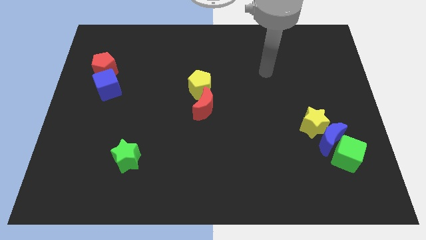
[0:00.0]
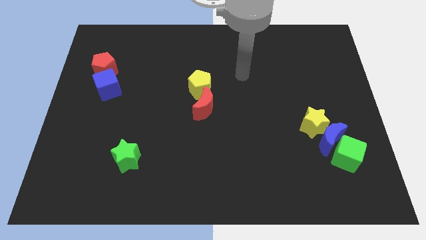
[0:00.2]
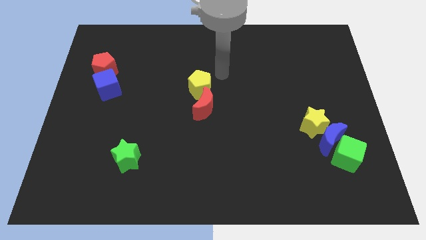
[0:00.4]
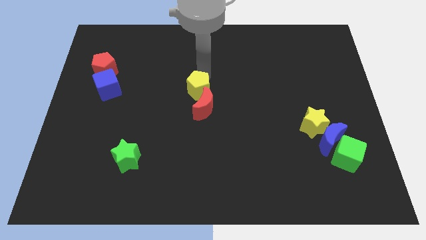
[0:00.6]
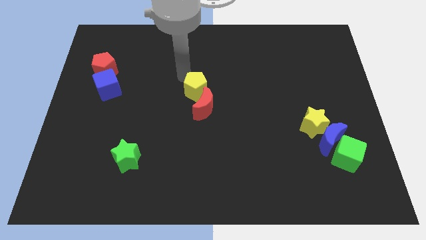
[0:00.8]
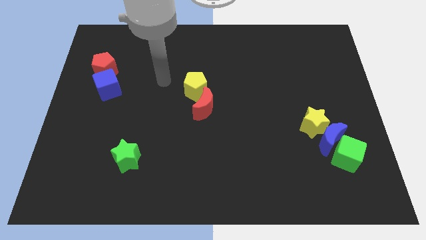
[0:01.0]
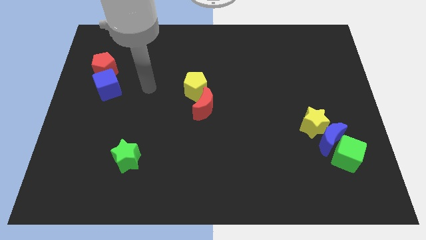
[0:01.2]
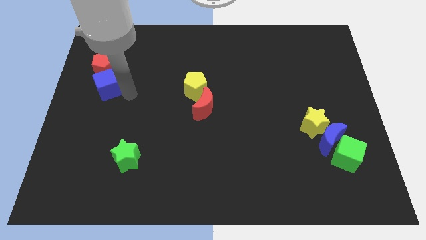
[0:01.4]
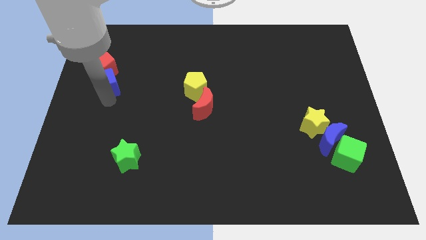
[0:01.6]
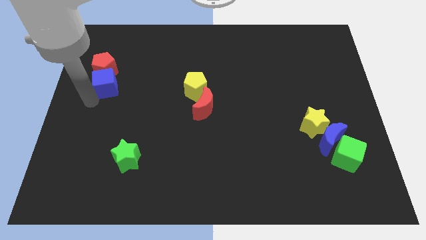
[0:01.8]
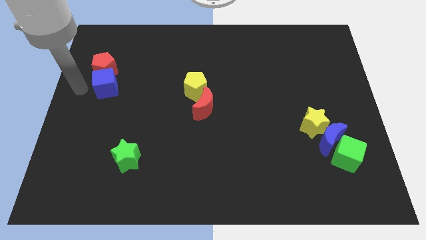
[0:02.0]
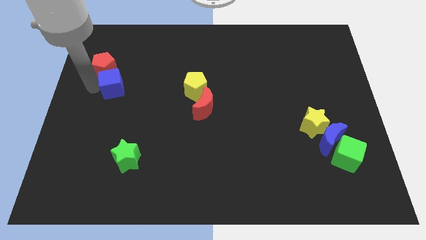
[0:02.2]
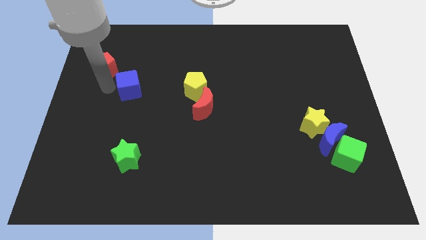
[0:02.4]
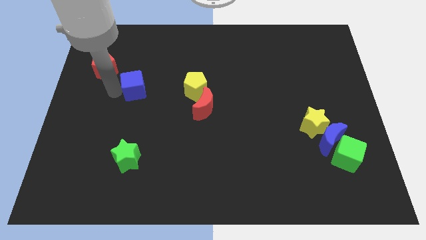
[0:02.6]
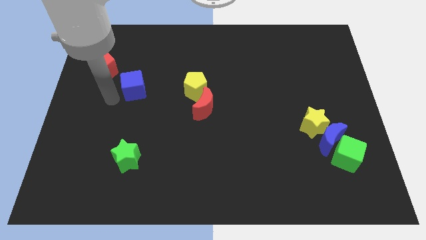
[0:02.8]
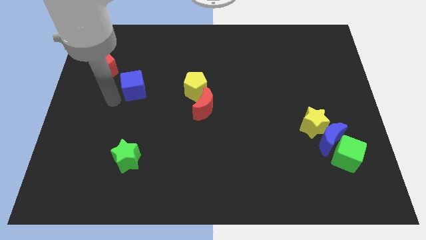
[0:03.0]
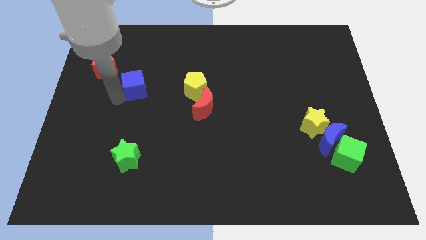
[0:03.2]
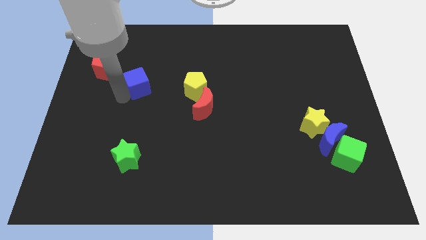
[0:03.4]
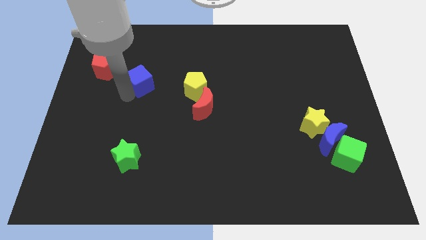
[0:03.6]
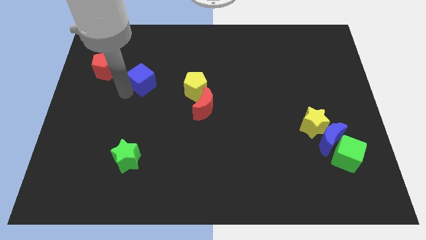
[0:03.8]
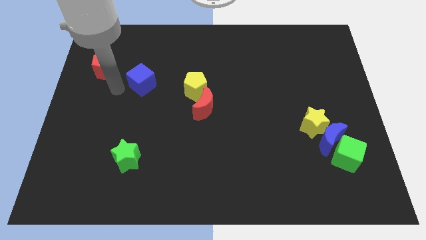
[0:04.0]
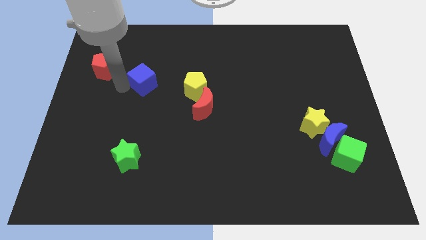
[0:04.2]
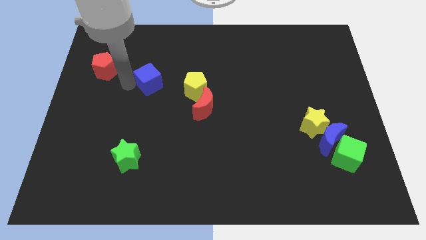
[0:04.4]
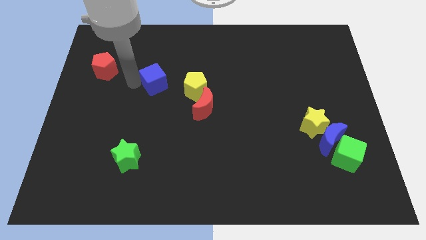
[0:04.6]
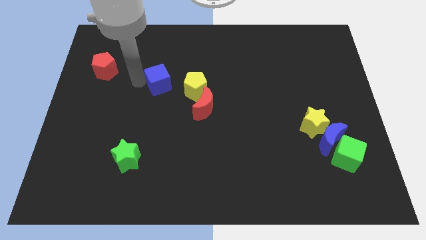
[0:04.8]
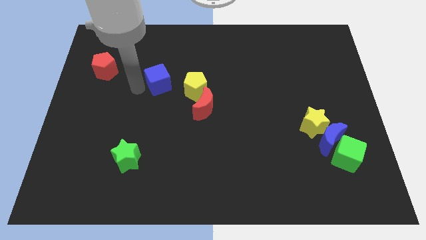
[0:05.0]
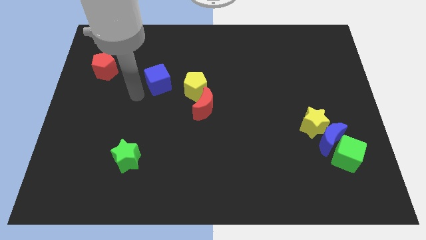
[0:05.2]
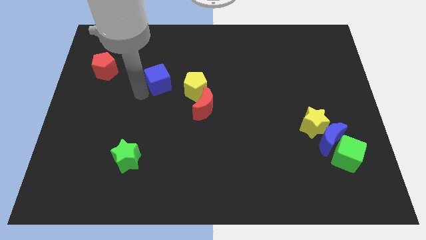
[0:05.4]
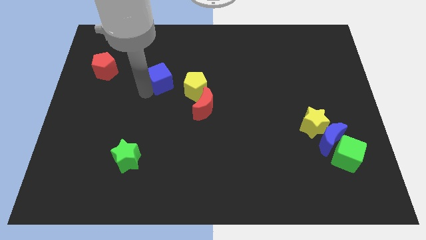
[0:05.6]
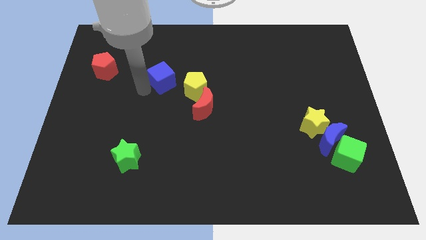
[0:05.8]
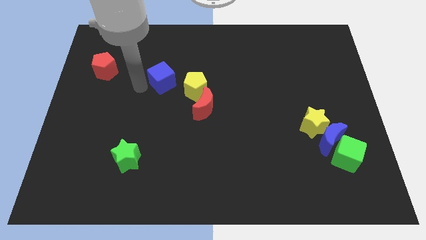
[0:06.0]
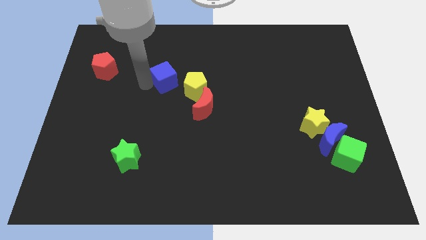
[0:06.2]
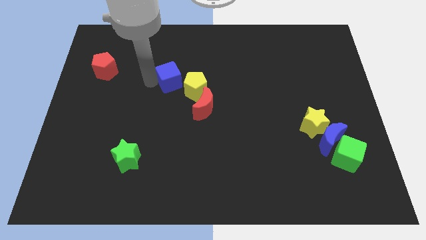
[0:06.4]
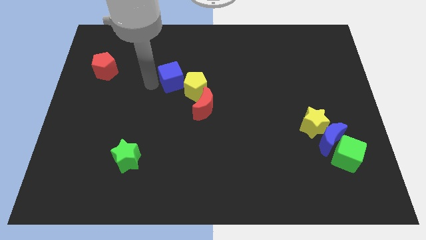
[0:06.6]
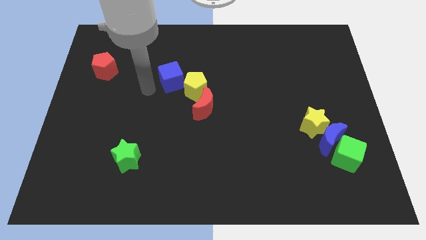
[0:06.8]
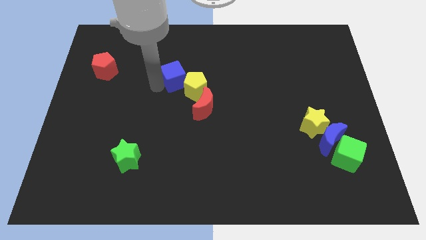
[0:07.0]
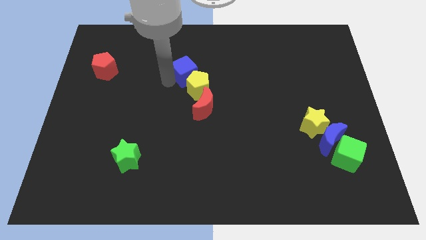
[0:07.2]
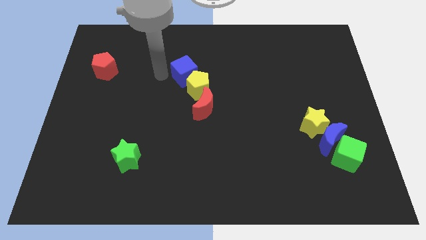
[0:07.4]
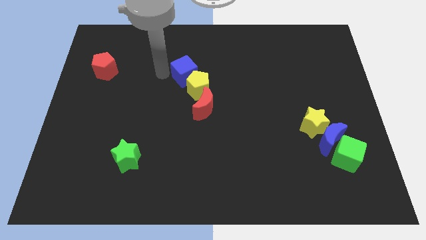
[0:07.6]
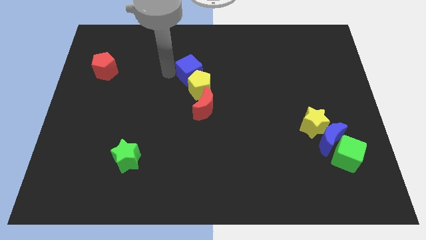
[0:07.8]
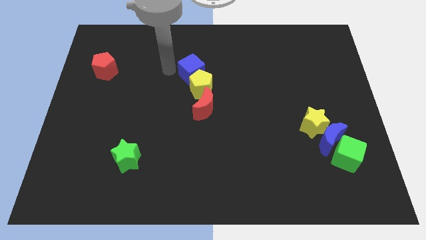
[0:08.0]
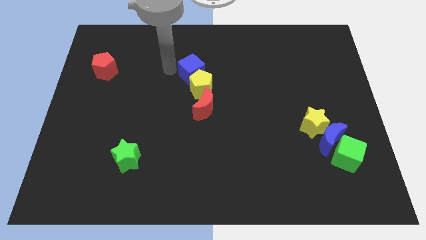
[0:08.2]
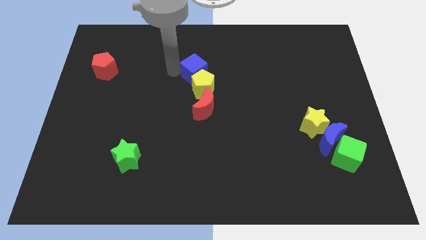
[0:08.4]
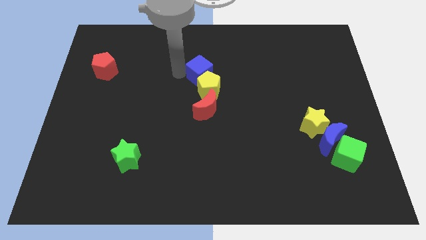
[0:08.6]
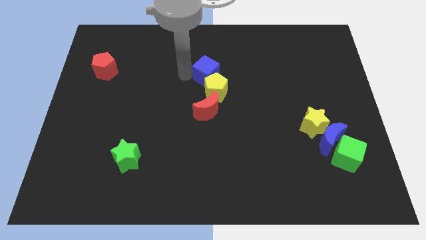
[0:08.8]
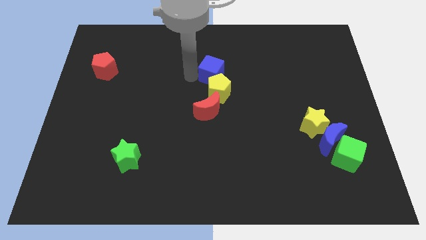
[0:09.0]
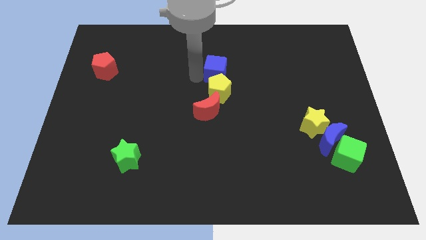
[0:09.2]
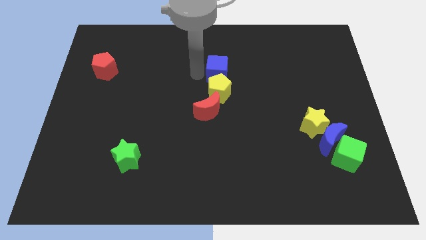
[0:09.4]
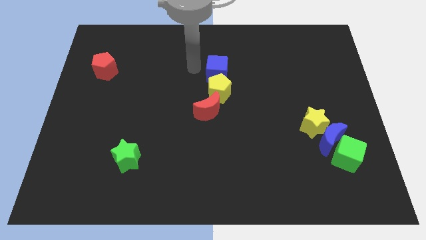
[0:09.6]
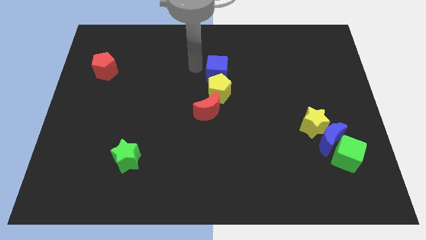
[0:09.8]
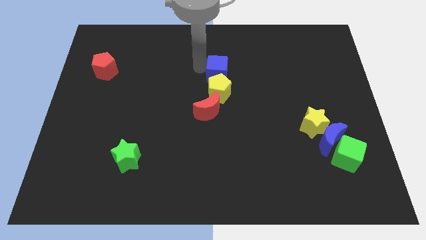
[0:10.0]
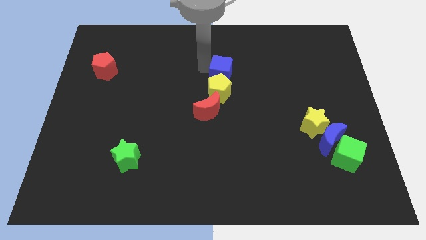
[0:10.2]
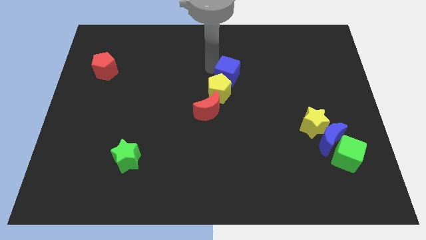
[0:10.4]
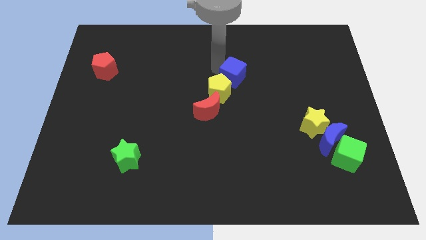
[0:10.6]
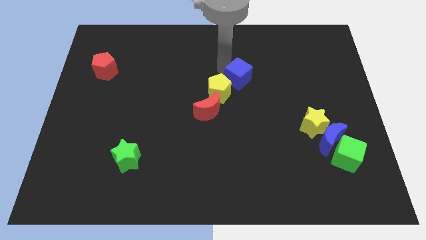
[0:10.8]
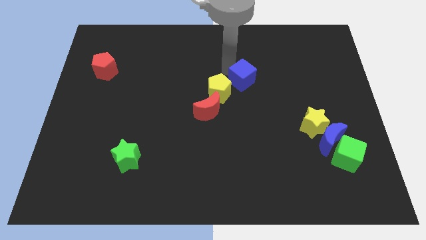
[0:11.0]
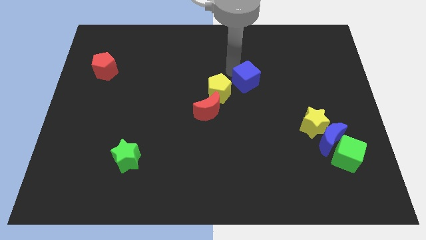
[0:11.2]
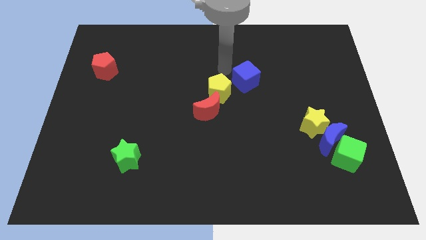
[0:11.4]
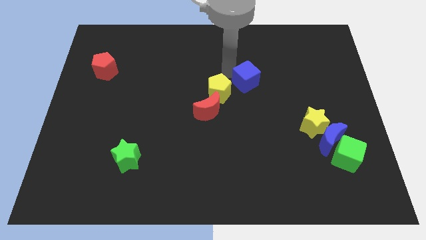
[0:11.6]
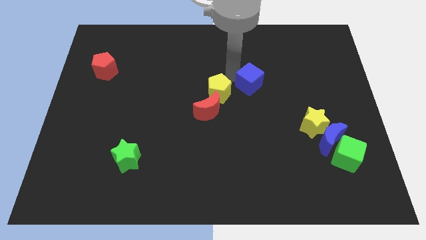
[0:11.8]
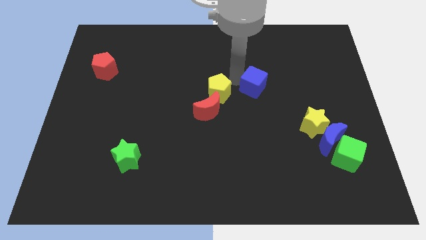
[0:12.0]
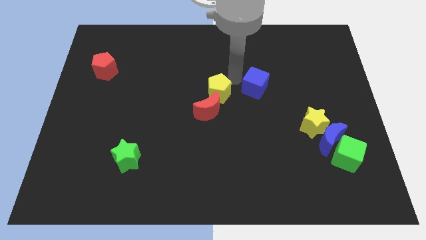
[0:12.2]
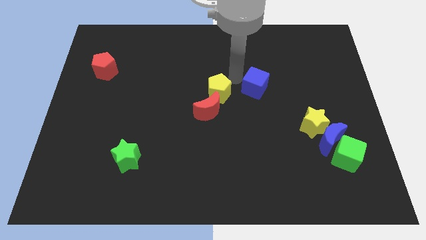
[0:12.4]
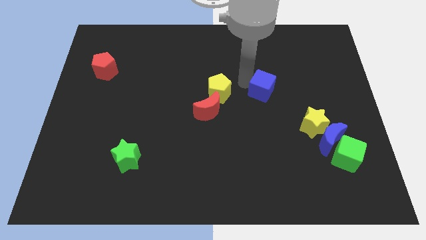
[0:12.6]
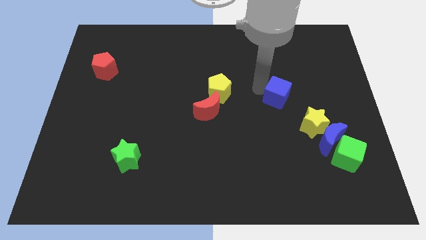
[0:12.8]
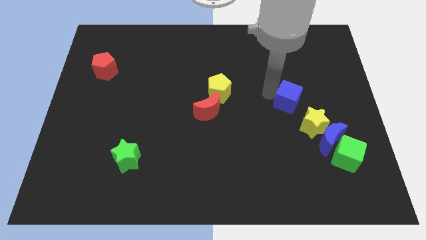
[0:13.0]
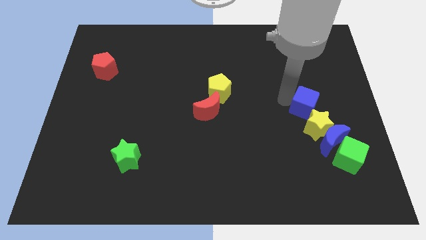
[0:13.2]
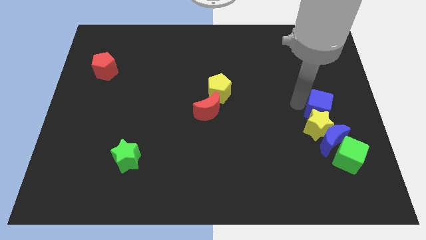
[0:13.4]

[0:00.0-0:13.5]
put the blue cube above the green cube
